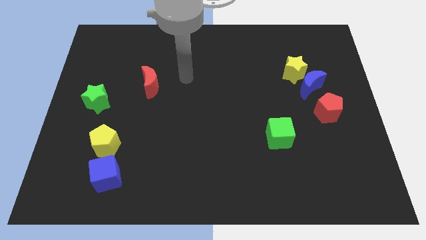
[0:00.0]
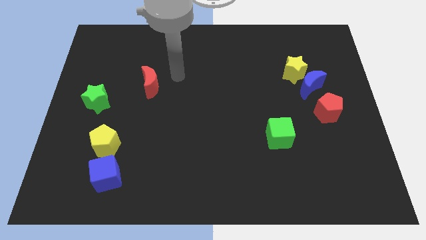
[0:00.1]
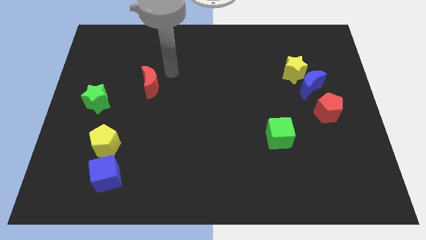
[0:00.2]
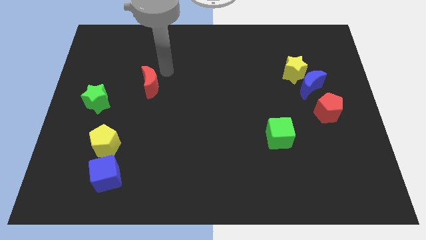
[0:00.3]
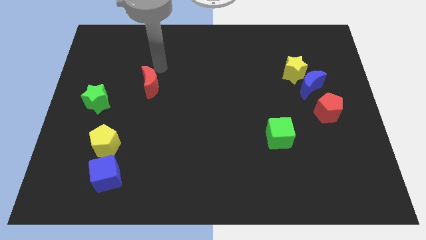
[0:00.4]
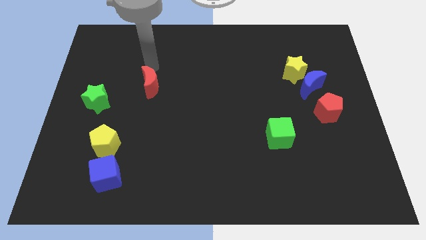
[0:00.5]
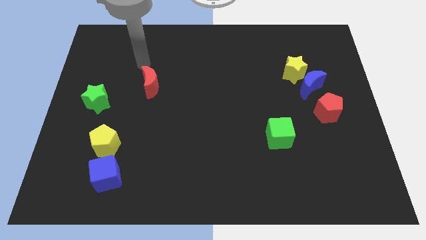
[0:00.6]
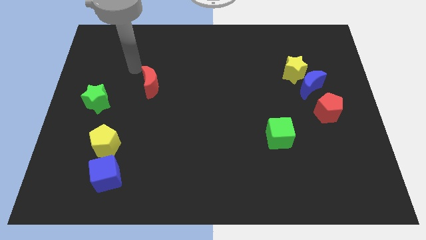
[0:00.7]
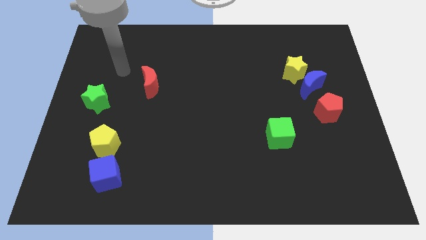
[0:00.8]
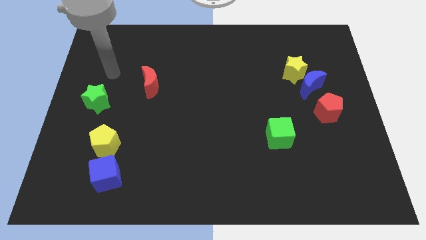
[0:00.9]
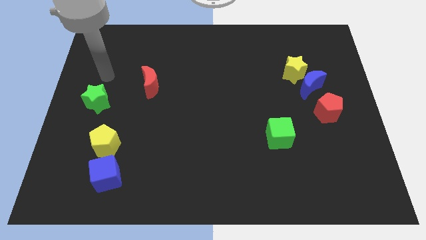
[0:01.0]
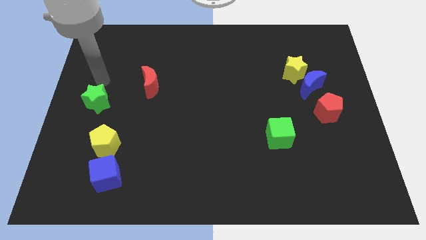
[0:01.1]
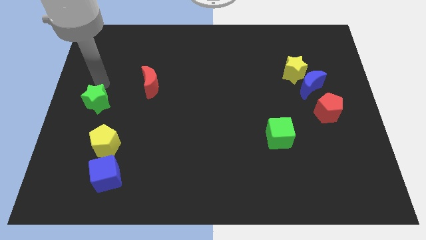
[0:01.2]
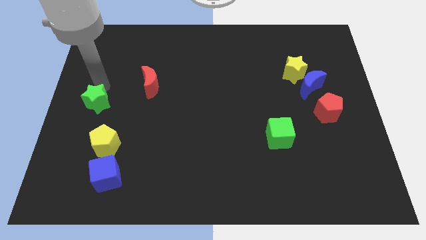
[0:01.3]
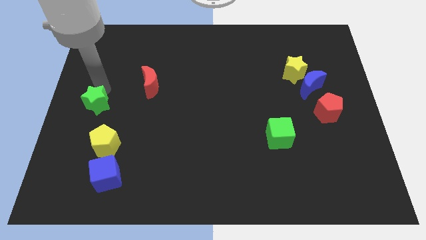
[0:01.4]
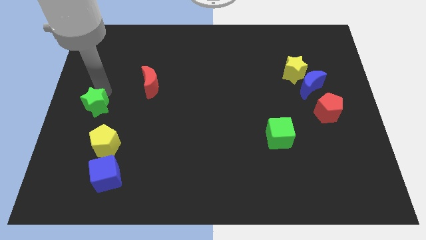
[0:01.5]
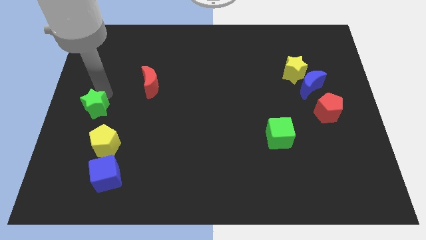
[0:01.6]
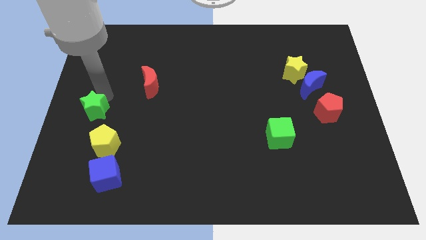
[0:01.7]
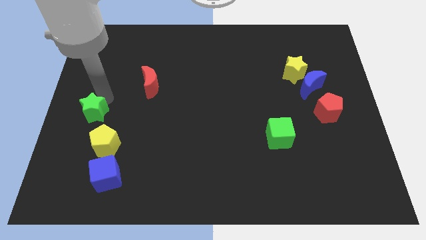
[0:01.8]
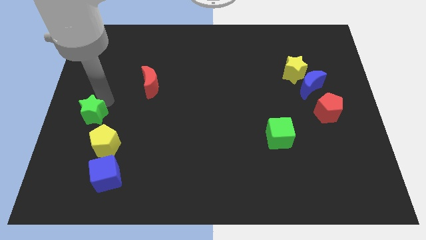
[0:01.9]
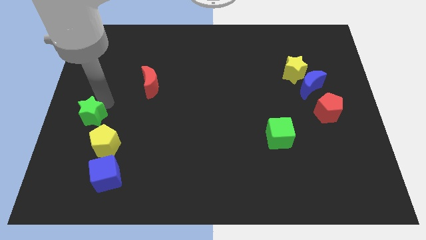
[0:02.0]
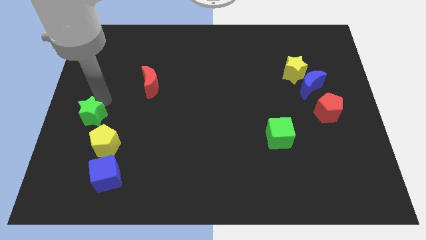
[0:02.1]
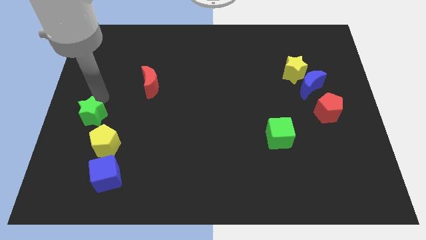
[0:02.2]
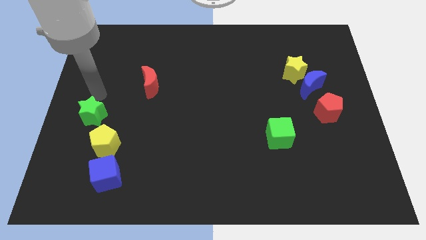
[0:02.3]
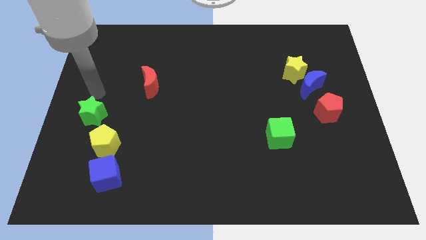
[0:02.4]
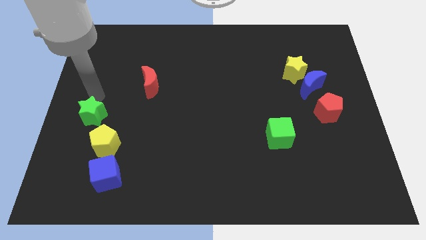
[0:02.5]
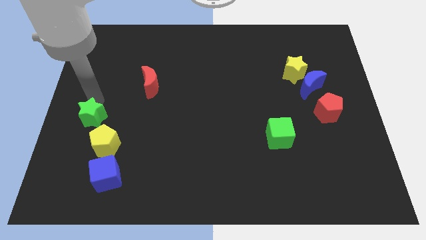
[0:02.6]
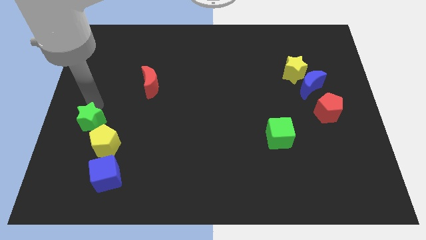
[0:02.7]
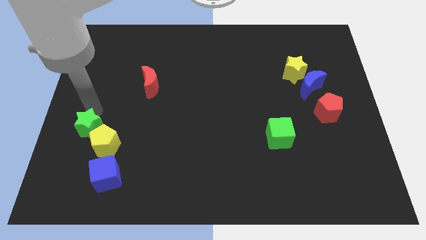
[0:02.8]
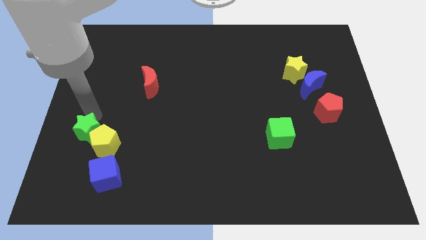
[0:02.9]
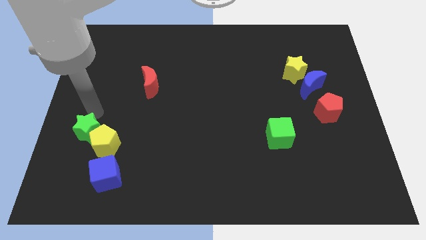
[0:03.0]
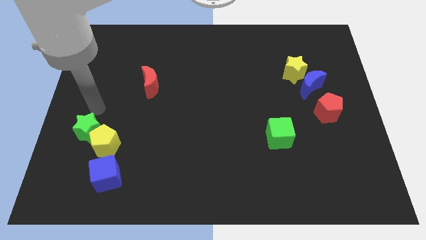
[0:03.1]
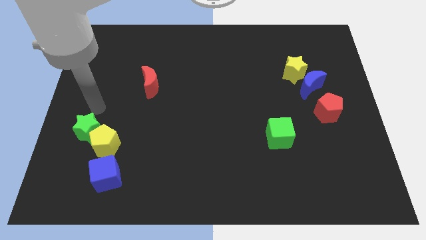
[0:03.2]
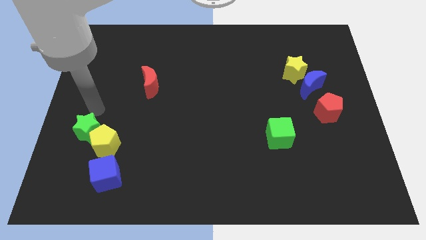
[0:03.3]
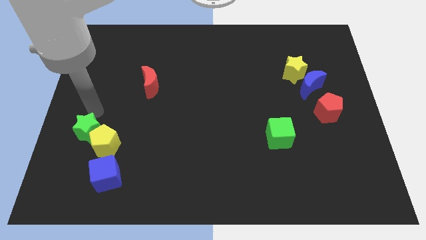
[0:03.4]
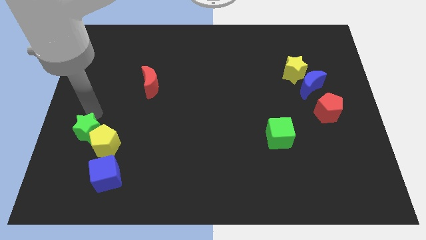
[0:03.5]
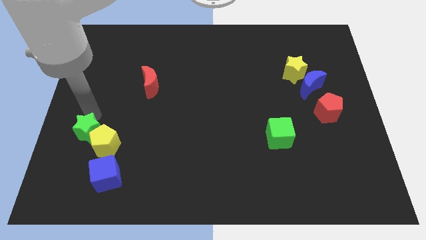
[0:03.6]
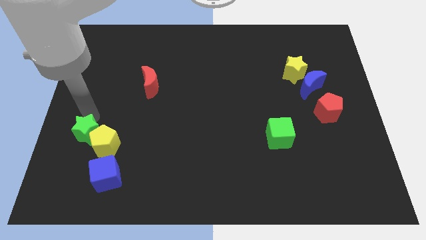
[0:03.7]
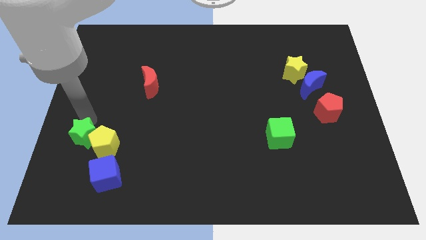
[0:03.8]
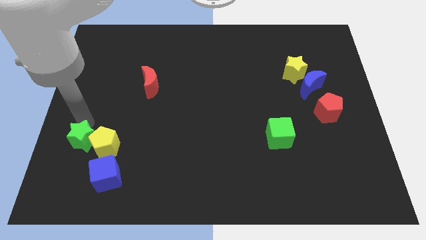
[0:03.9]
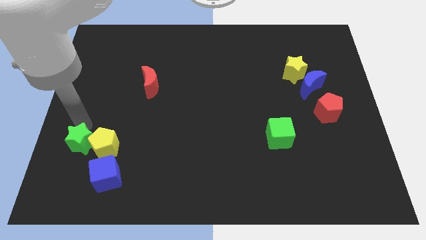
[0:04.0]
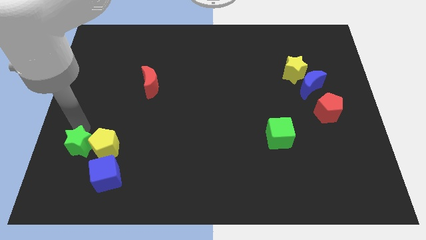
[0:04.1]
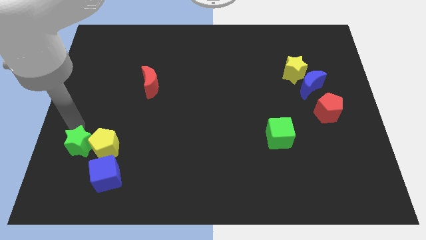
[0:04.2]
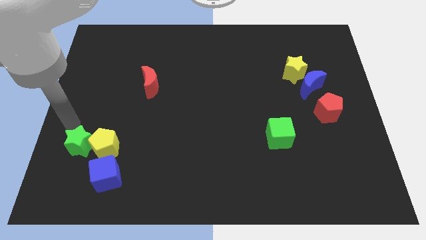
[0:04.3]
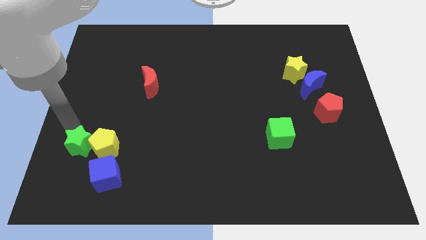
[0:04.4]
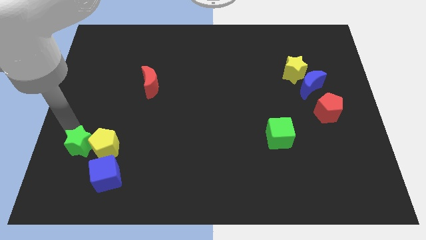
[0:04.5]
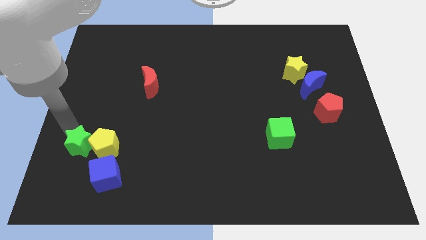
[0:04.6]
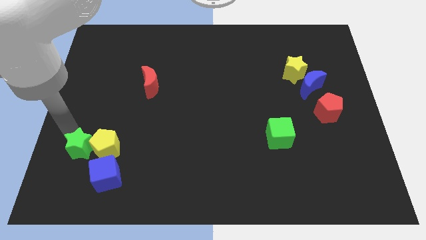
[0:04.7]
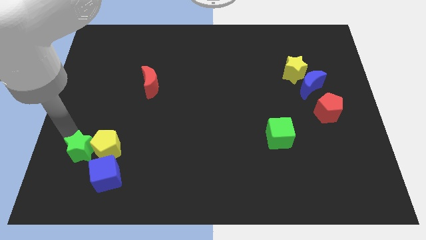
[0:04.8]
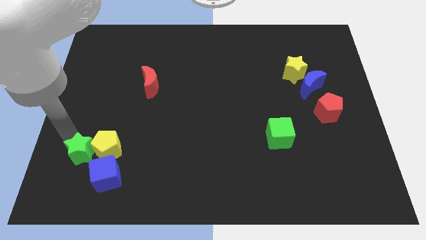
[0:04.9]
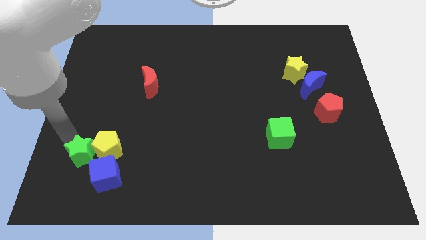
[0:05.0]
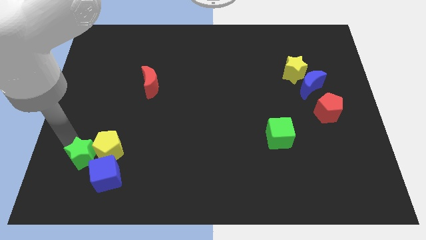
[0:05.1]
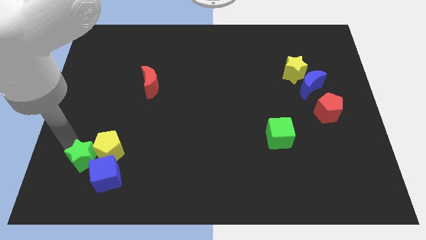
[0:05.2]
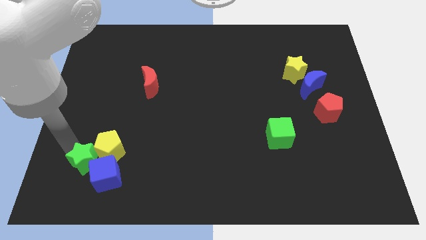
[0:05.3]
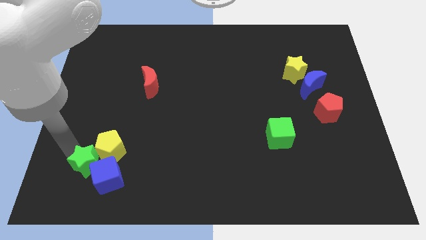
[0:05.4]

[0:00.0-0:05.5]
slide the green star towards the blue cube
